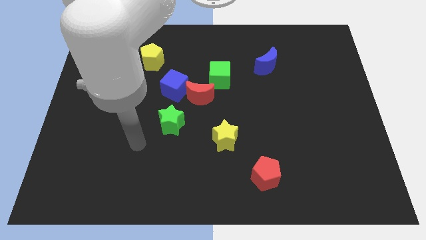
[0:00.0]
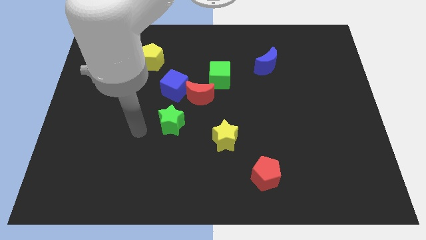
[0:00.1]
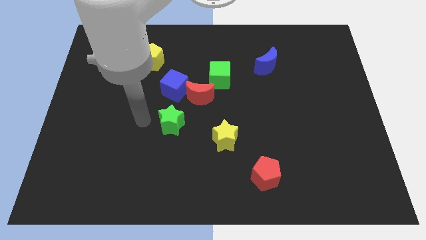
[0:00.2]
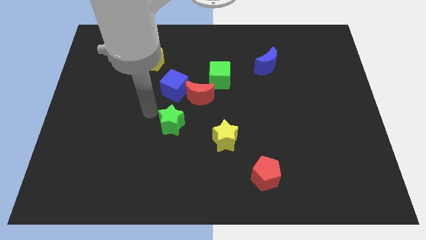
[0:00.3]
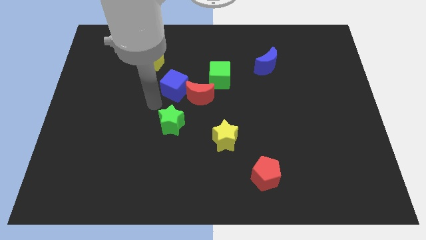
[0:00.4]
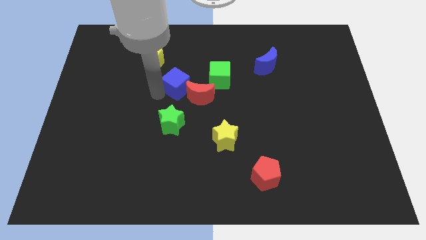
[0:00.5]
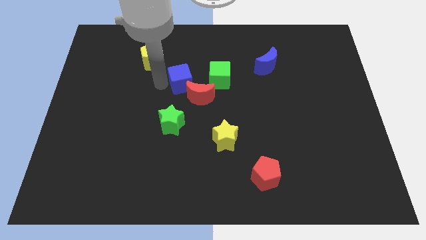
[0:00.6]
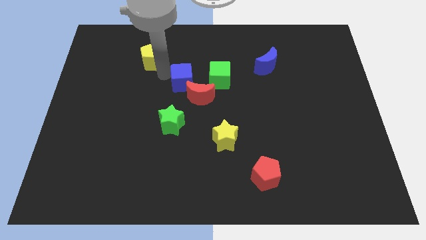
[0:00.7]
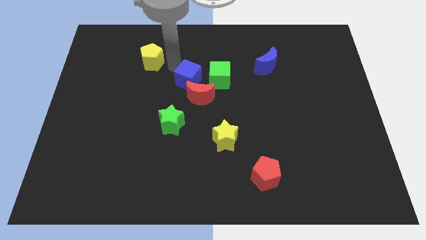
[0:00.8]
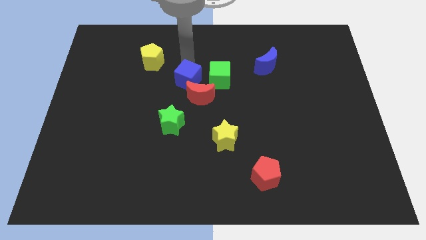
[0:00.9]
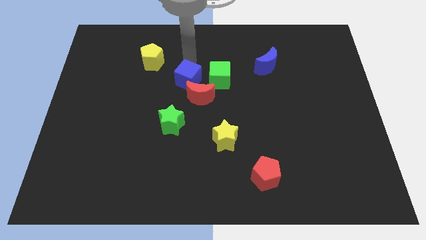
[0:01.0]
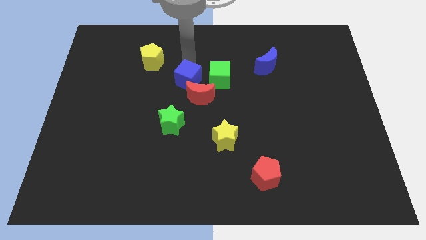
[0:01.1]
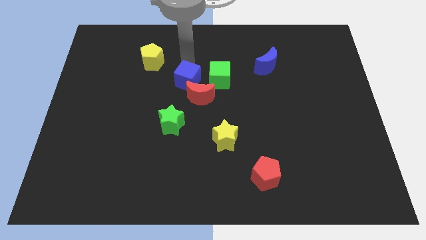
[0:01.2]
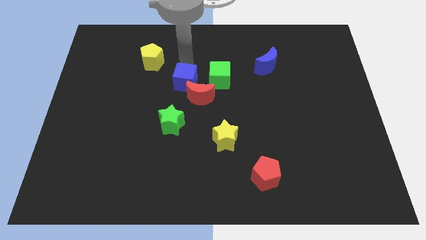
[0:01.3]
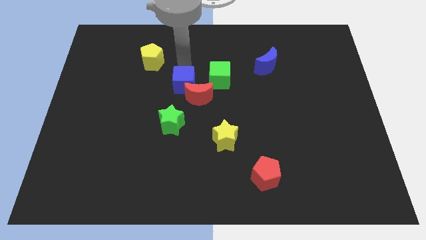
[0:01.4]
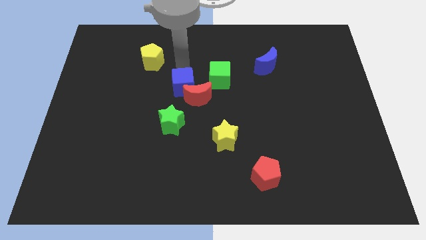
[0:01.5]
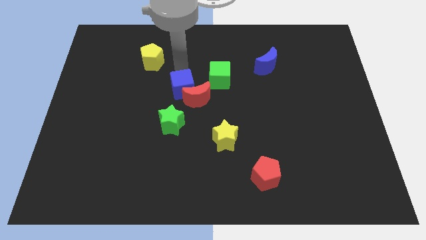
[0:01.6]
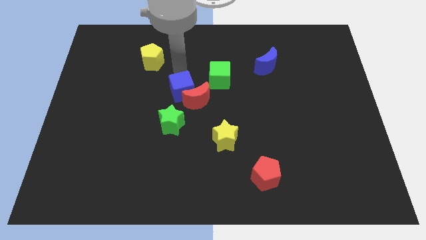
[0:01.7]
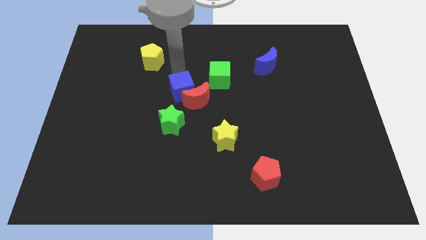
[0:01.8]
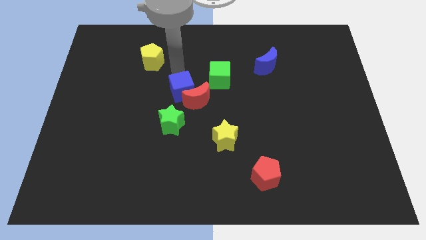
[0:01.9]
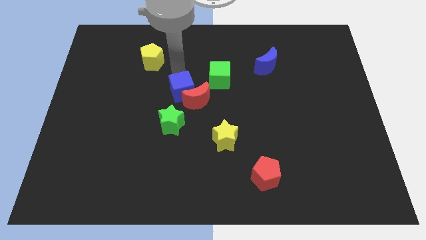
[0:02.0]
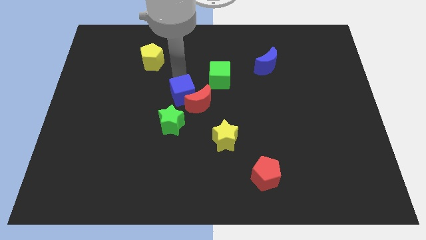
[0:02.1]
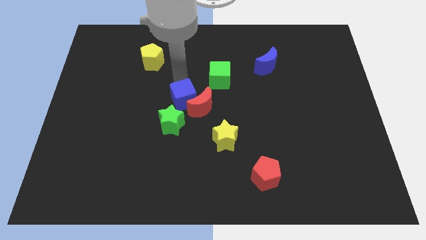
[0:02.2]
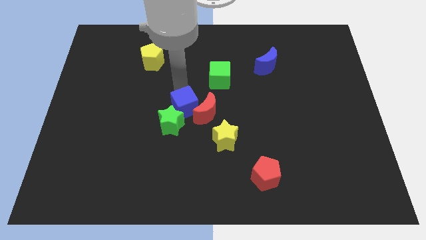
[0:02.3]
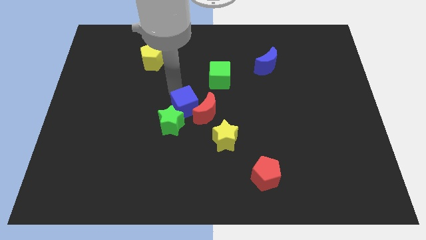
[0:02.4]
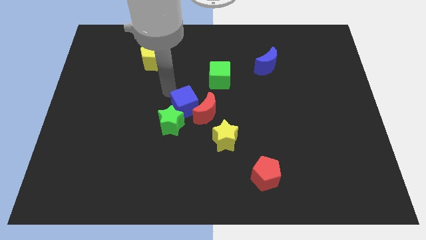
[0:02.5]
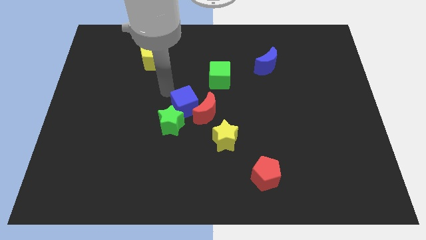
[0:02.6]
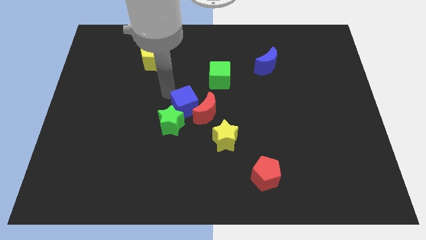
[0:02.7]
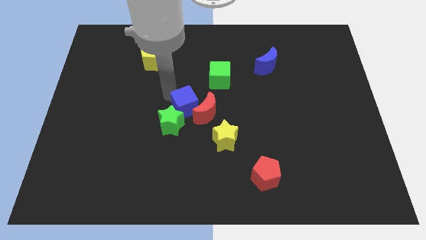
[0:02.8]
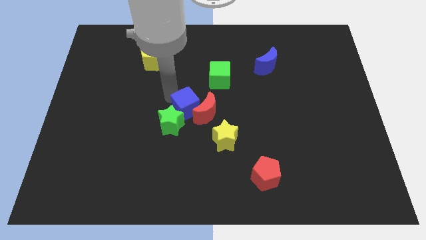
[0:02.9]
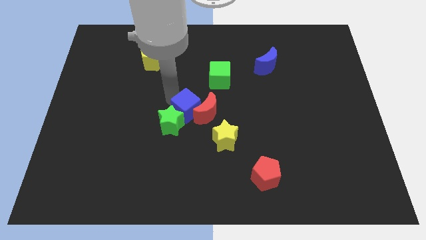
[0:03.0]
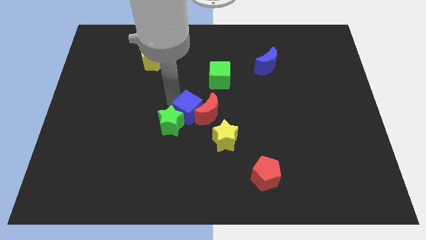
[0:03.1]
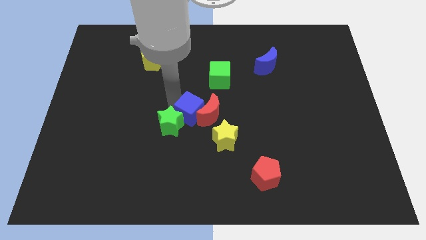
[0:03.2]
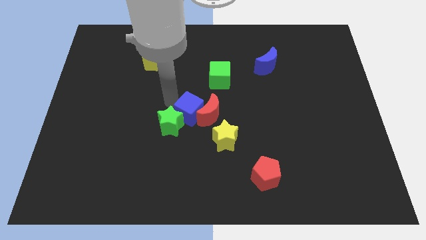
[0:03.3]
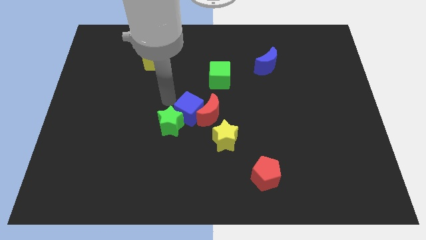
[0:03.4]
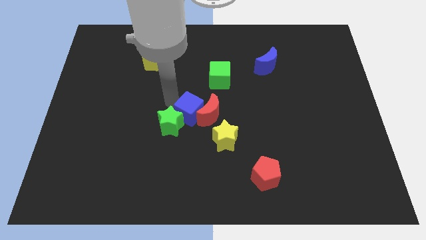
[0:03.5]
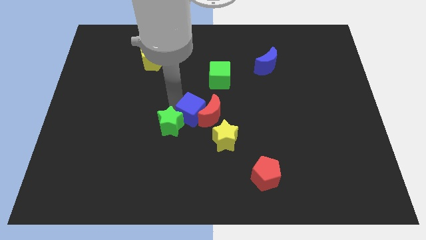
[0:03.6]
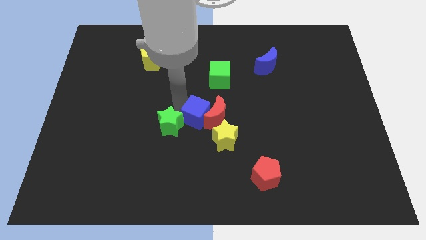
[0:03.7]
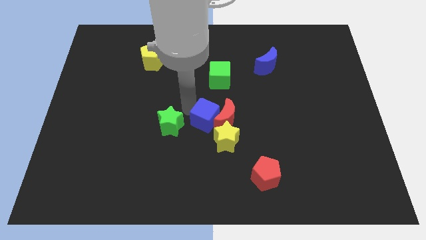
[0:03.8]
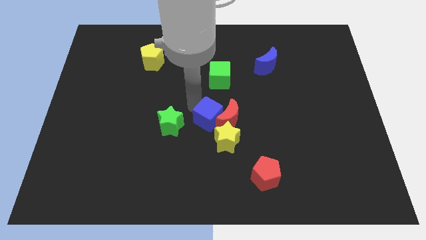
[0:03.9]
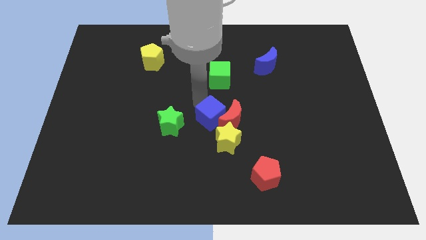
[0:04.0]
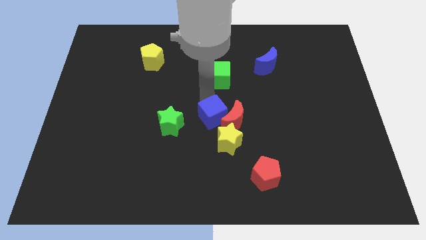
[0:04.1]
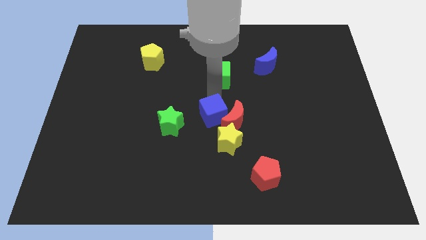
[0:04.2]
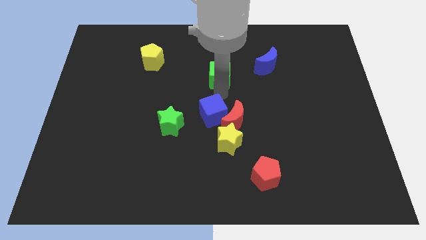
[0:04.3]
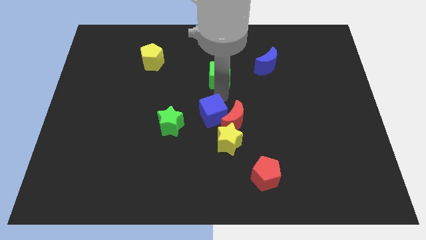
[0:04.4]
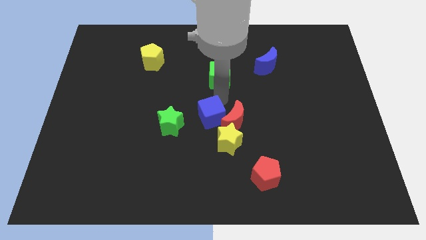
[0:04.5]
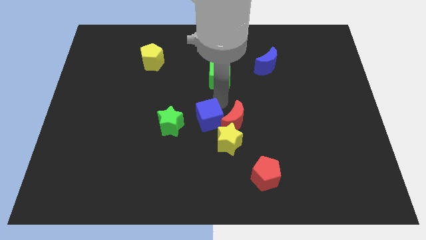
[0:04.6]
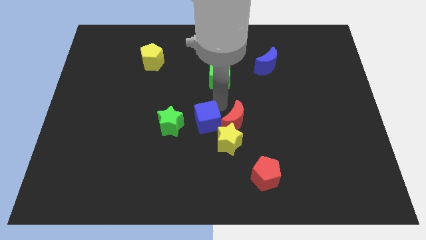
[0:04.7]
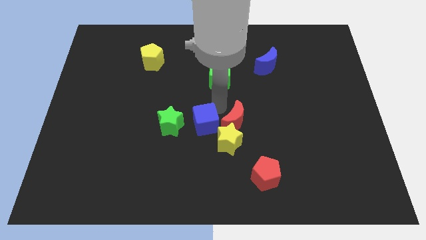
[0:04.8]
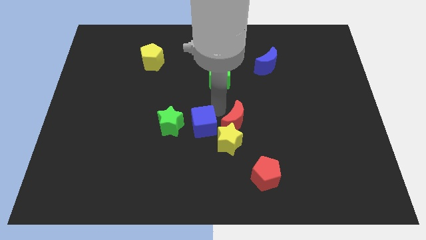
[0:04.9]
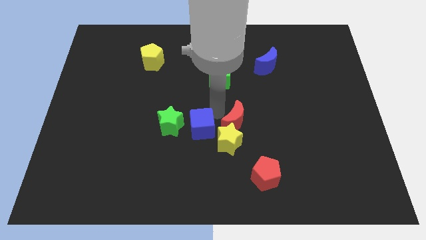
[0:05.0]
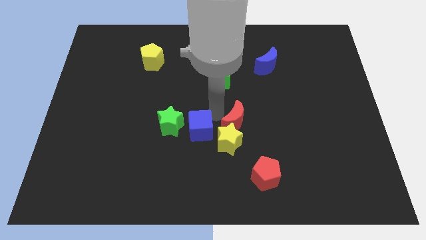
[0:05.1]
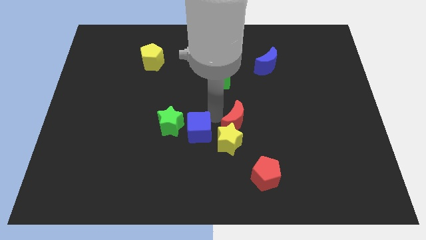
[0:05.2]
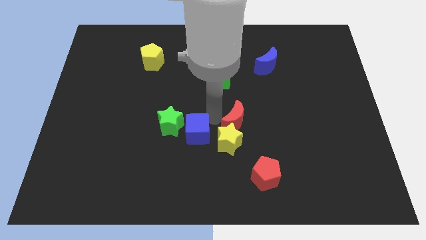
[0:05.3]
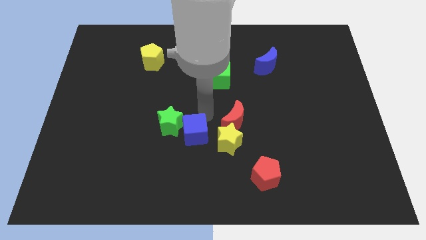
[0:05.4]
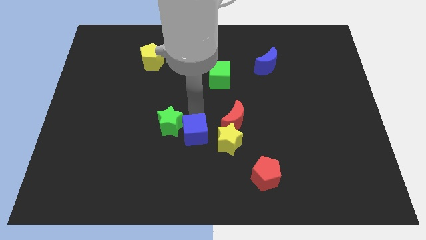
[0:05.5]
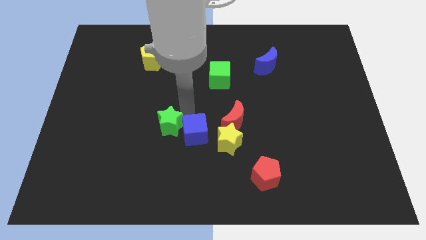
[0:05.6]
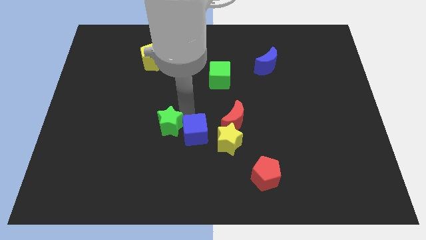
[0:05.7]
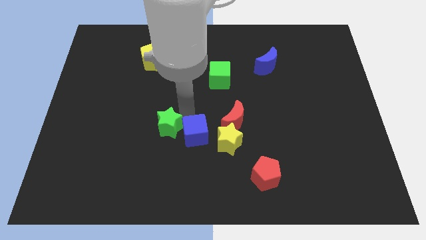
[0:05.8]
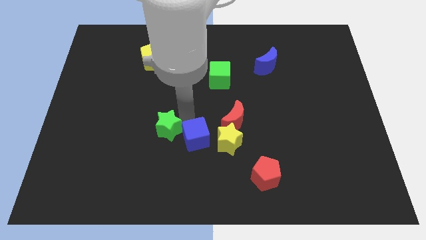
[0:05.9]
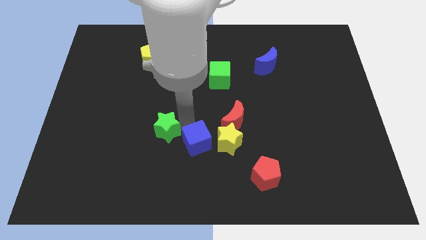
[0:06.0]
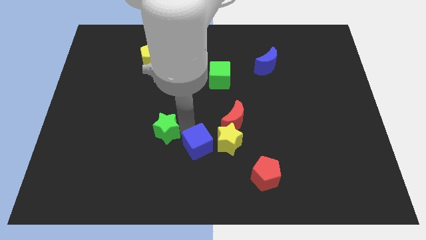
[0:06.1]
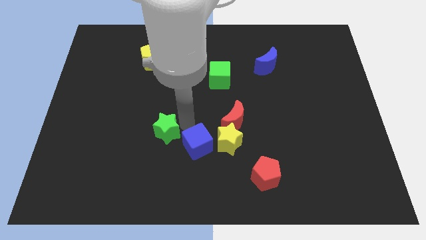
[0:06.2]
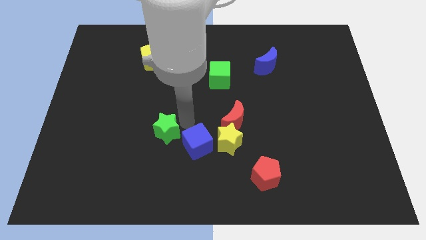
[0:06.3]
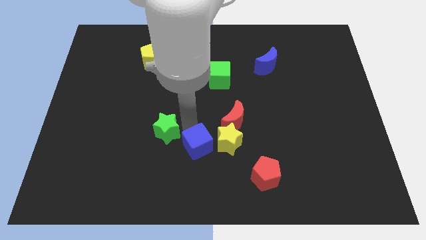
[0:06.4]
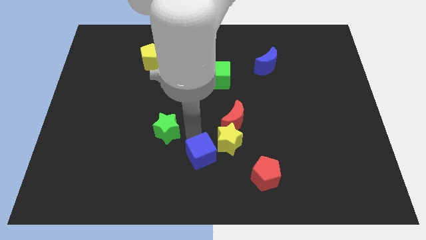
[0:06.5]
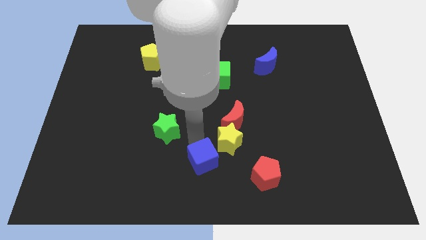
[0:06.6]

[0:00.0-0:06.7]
put the blue cube to the left of the red pentagon

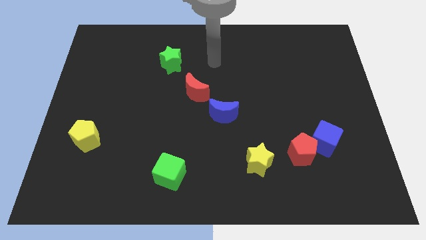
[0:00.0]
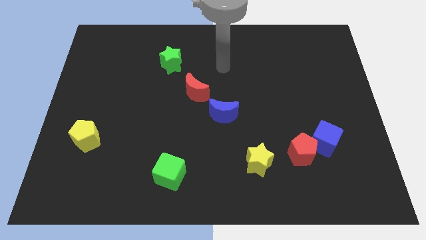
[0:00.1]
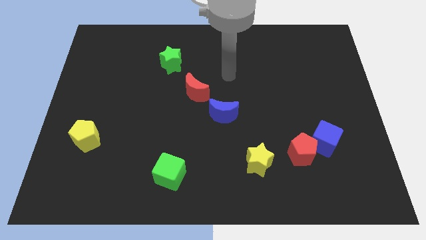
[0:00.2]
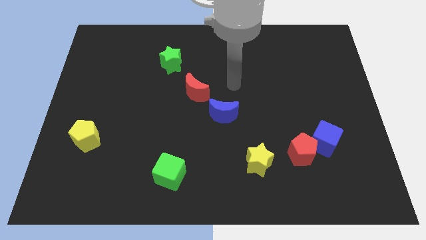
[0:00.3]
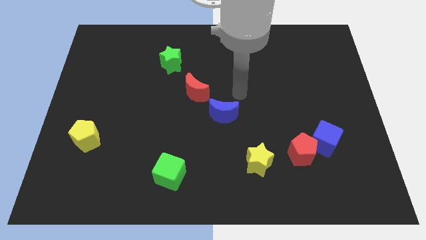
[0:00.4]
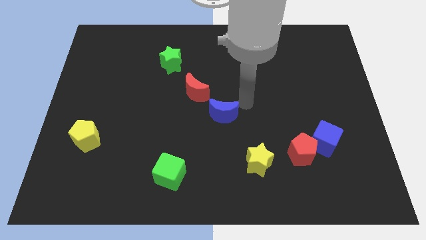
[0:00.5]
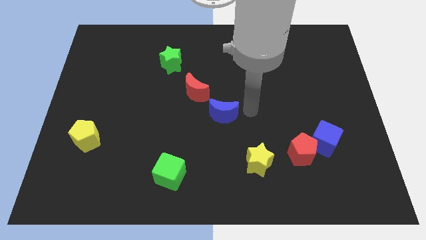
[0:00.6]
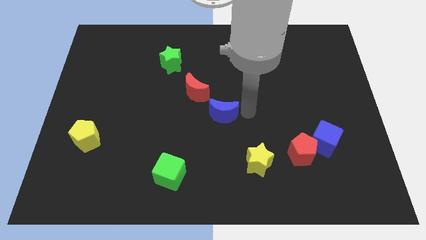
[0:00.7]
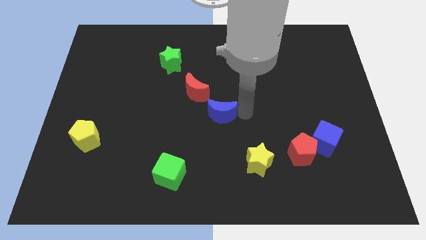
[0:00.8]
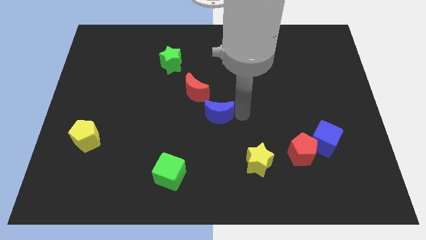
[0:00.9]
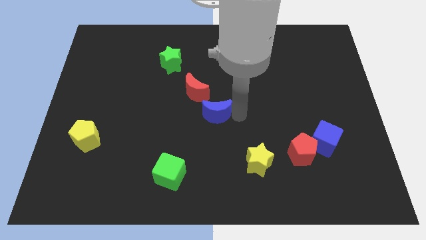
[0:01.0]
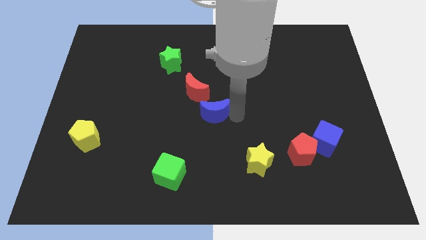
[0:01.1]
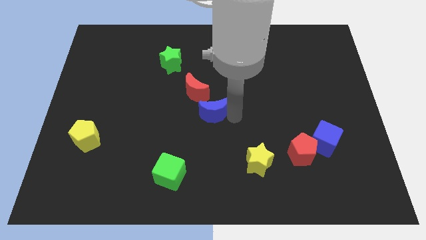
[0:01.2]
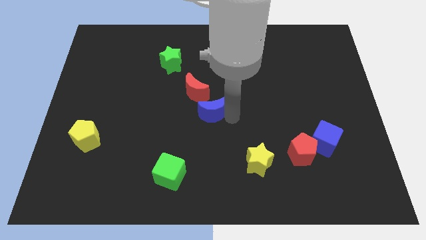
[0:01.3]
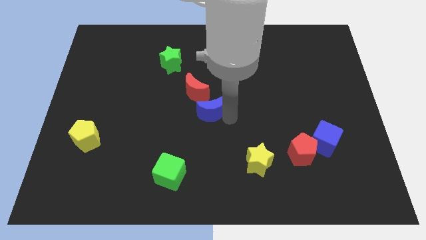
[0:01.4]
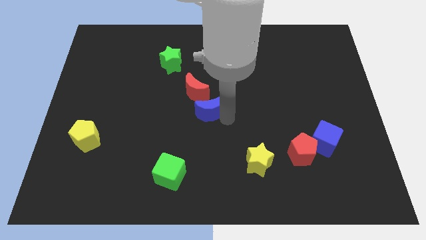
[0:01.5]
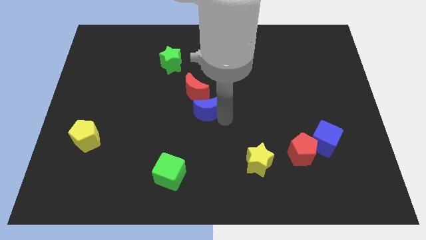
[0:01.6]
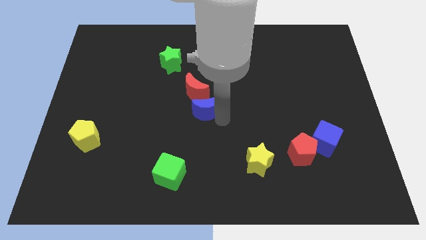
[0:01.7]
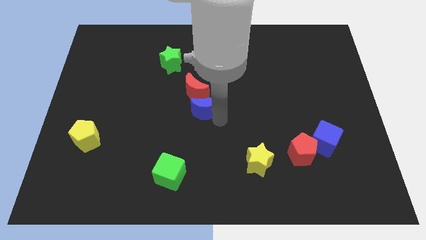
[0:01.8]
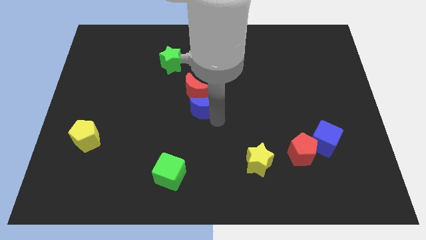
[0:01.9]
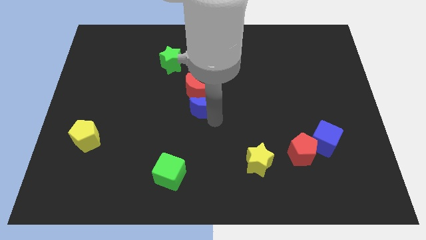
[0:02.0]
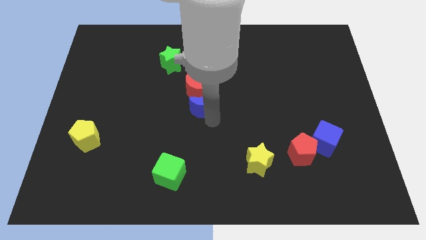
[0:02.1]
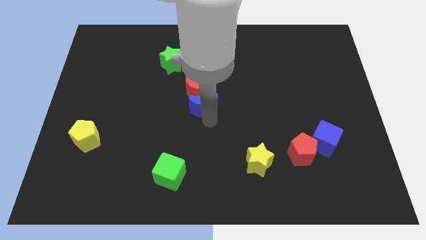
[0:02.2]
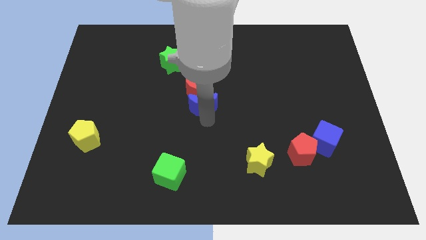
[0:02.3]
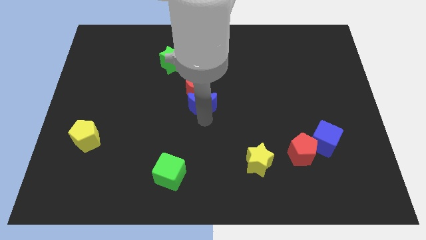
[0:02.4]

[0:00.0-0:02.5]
put the blue moon to the bottom left side of the red moon
